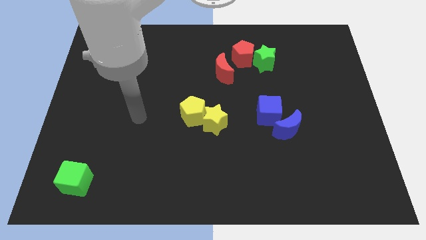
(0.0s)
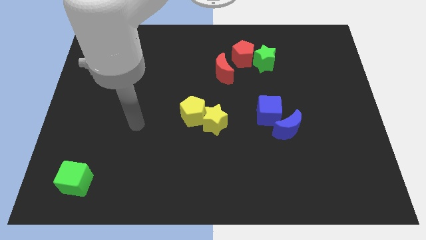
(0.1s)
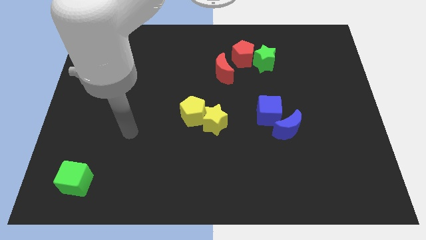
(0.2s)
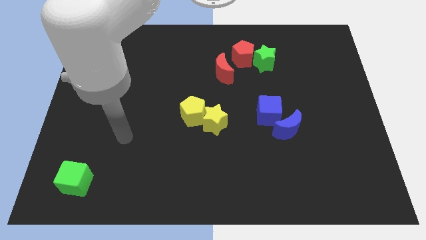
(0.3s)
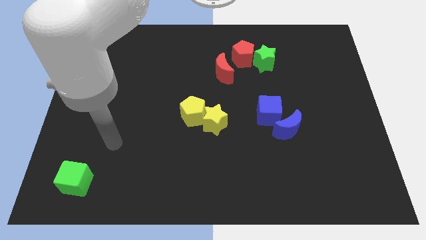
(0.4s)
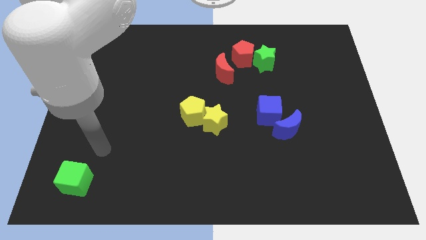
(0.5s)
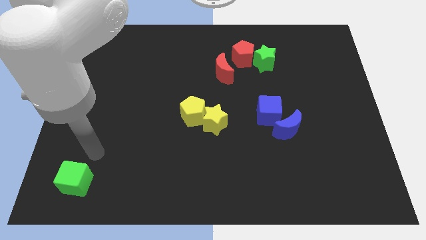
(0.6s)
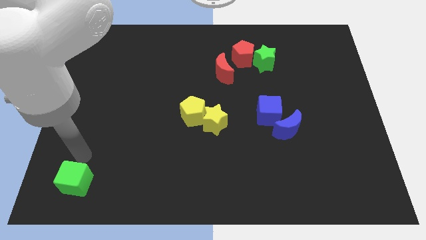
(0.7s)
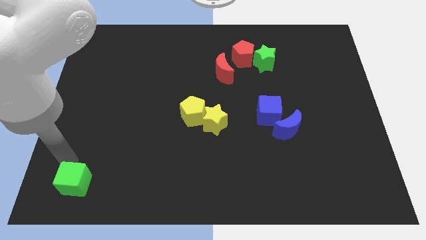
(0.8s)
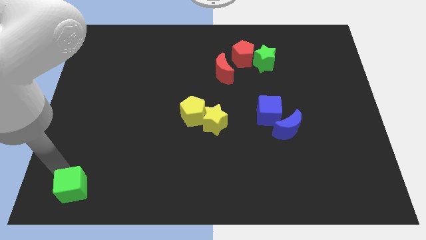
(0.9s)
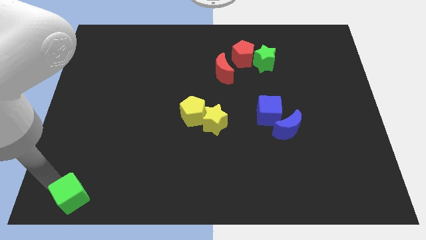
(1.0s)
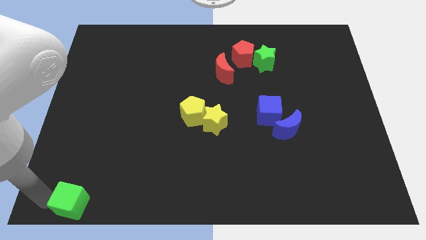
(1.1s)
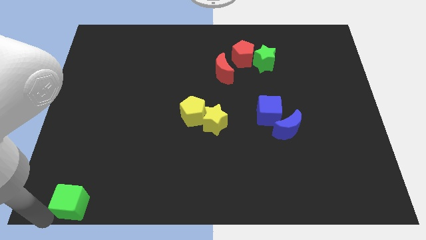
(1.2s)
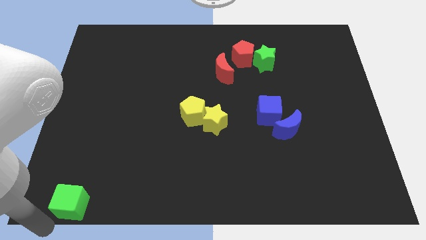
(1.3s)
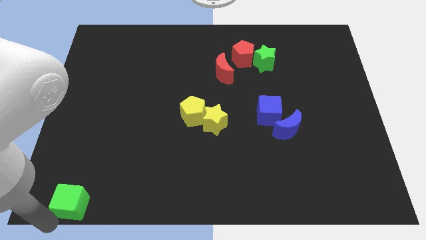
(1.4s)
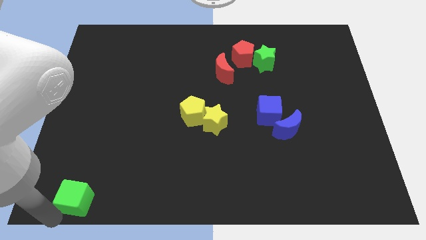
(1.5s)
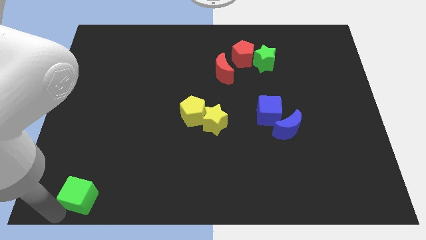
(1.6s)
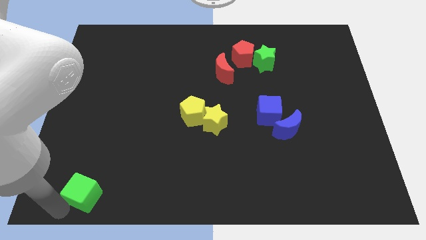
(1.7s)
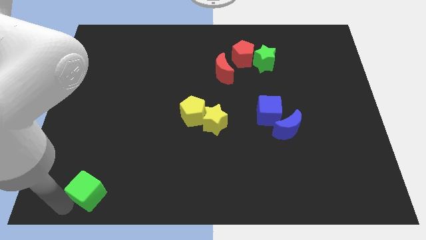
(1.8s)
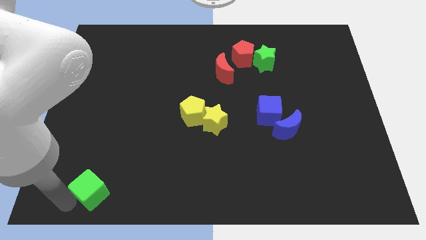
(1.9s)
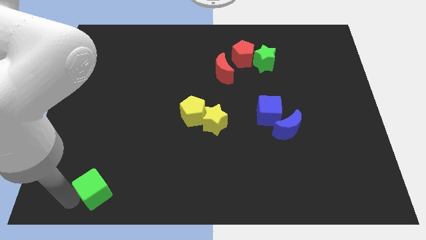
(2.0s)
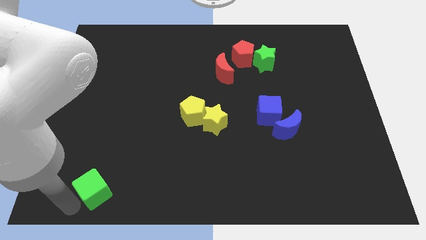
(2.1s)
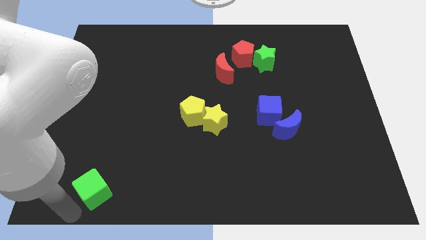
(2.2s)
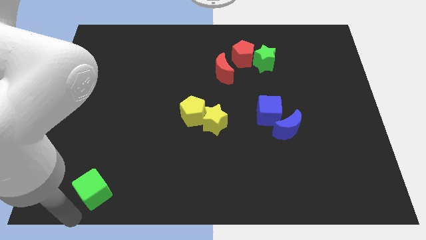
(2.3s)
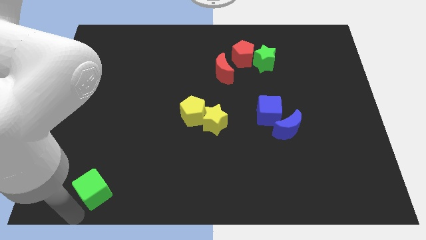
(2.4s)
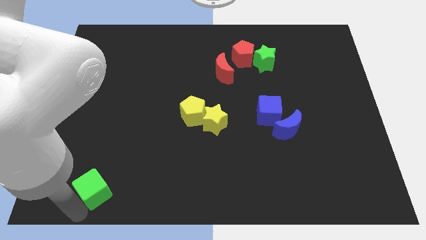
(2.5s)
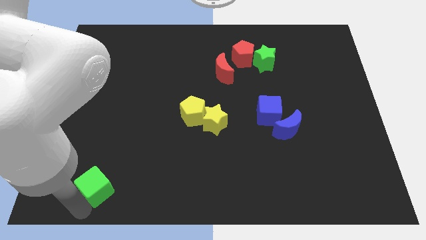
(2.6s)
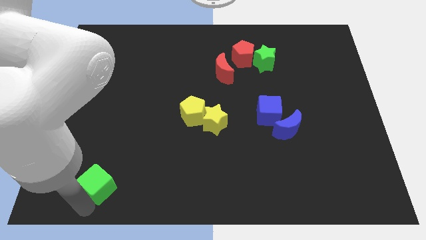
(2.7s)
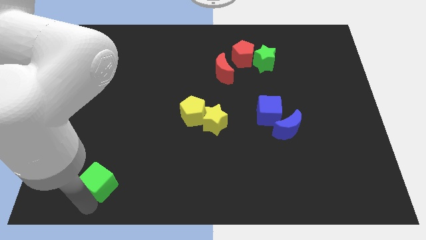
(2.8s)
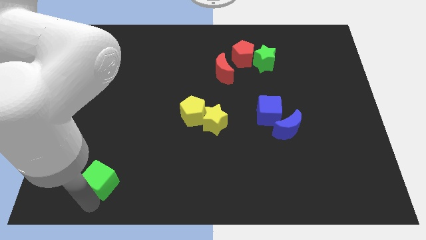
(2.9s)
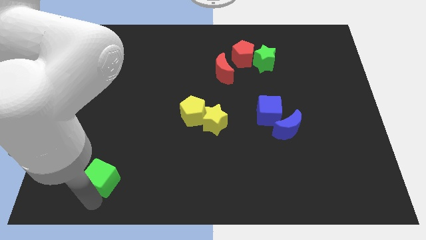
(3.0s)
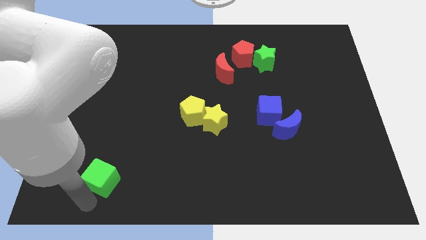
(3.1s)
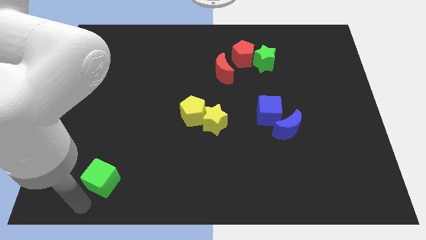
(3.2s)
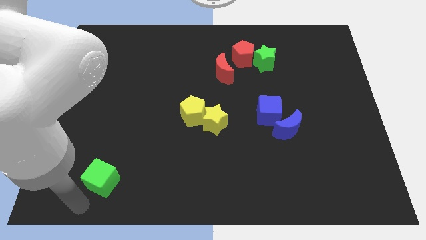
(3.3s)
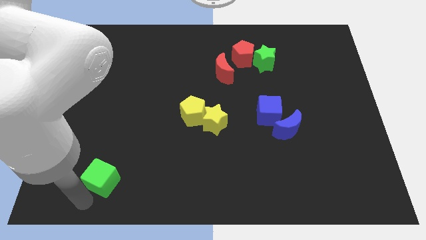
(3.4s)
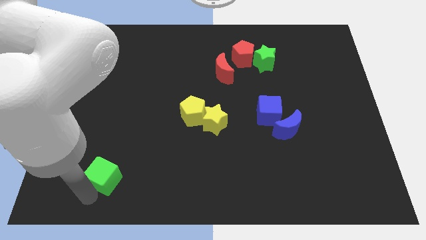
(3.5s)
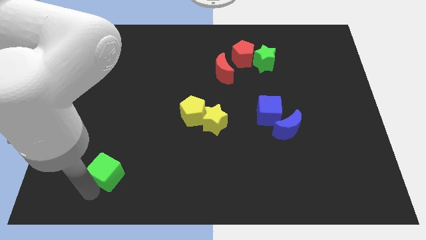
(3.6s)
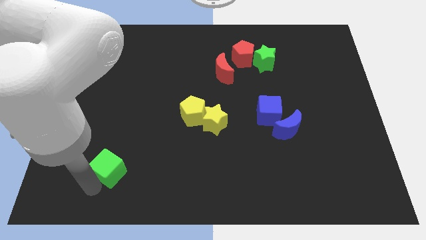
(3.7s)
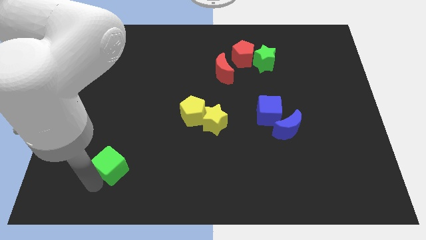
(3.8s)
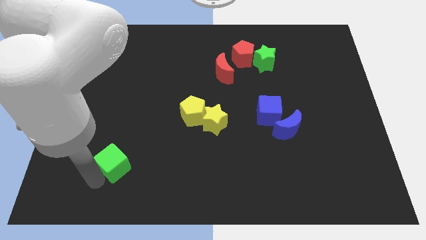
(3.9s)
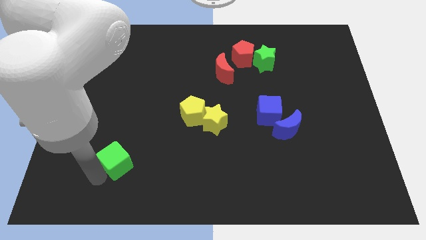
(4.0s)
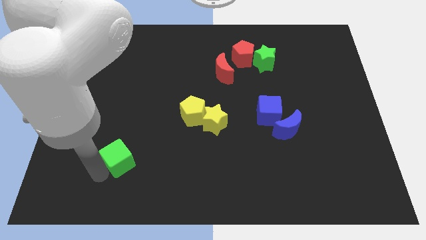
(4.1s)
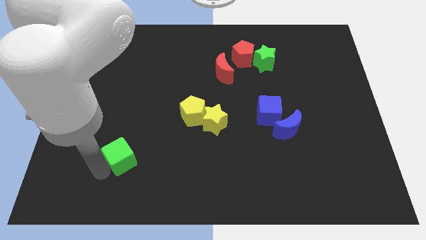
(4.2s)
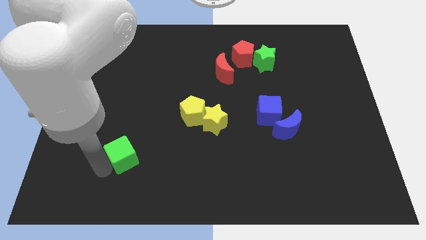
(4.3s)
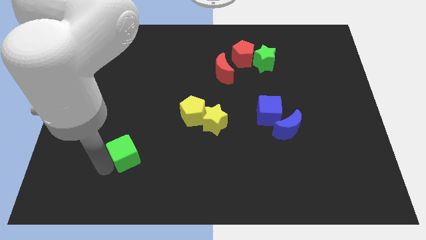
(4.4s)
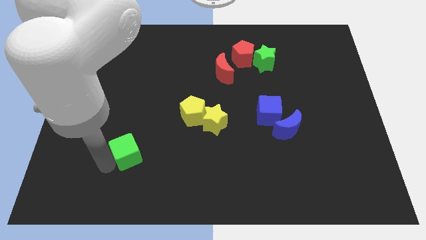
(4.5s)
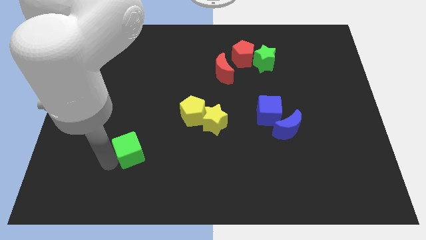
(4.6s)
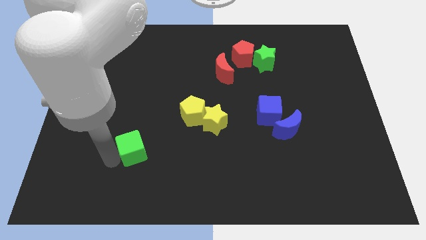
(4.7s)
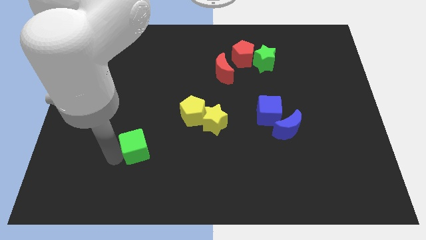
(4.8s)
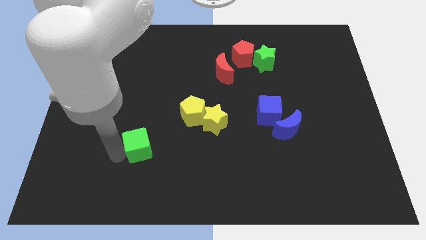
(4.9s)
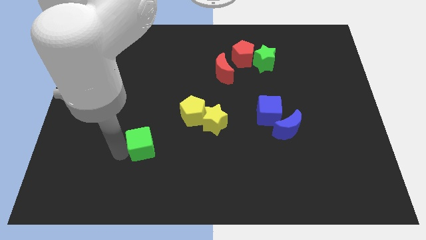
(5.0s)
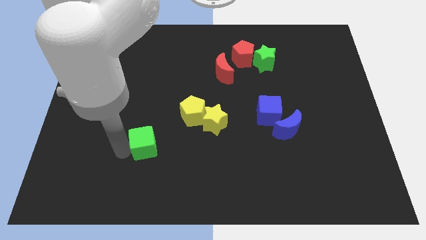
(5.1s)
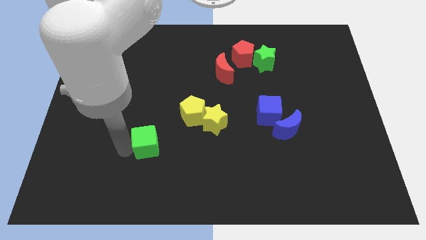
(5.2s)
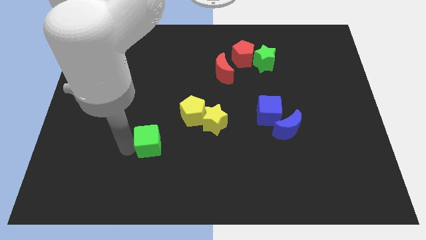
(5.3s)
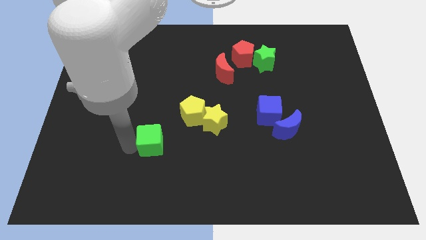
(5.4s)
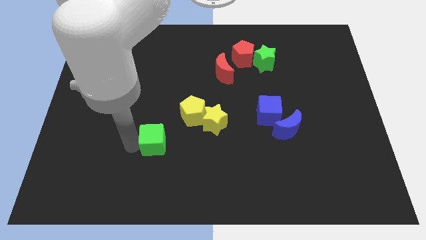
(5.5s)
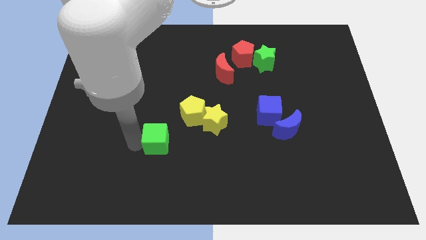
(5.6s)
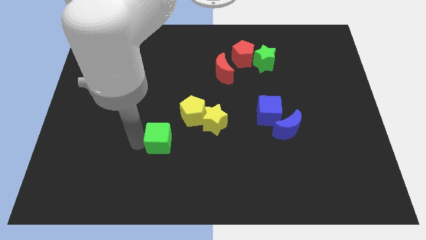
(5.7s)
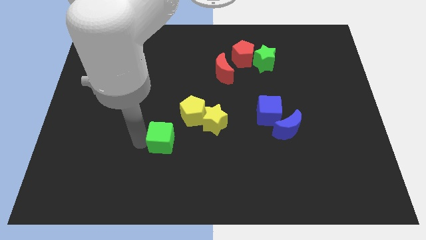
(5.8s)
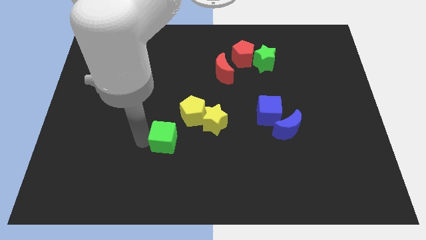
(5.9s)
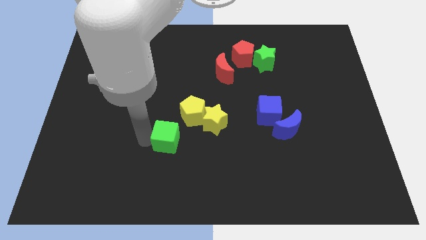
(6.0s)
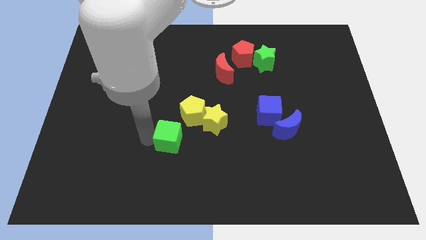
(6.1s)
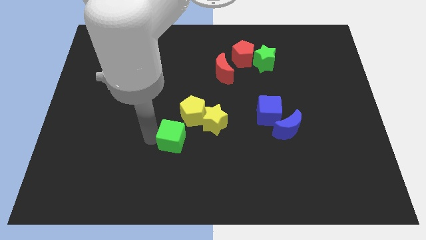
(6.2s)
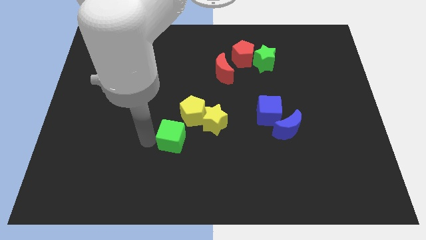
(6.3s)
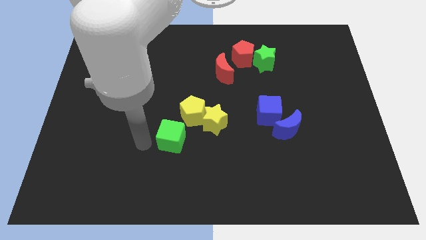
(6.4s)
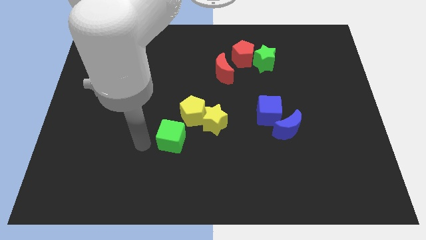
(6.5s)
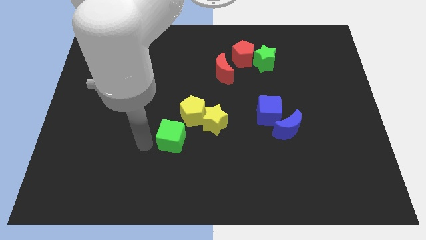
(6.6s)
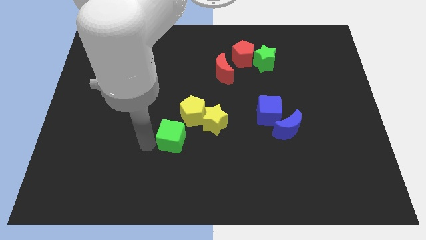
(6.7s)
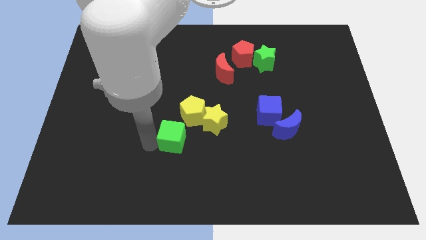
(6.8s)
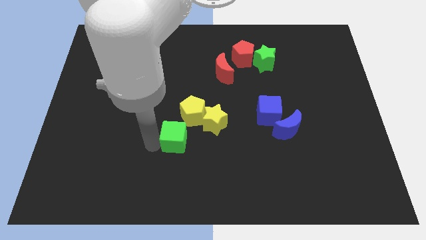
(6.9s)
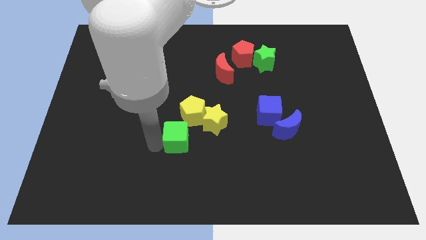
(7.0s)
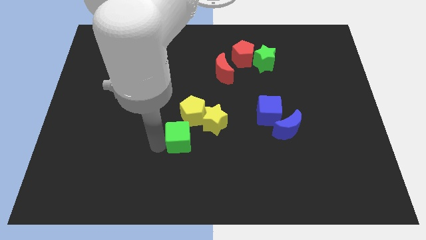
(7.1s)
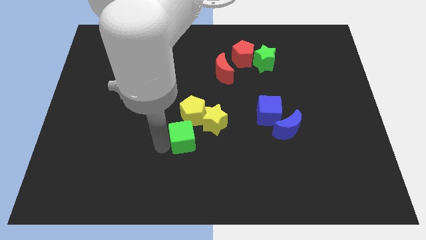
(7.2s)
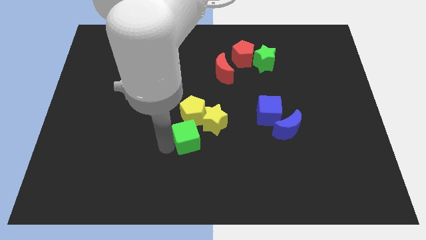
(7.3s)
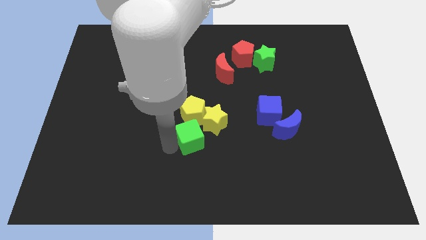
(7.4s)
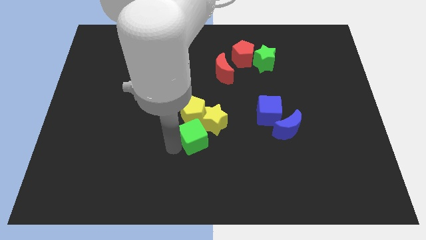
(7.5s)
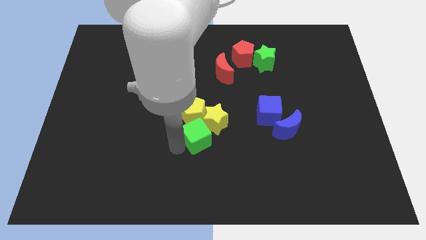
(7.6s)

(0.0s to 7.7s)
move the green cube close to the yellow star
